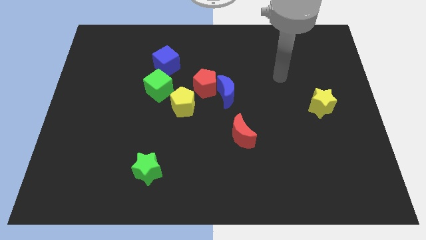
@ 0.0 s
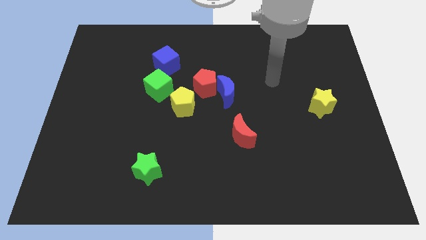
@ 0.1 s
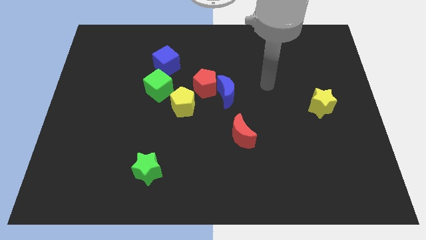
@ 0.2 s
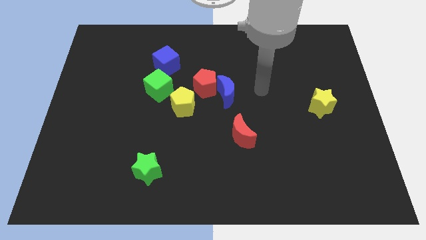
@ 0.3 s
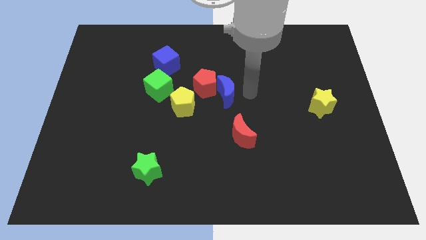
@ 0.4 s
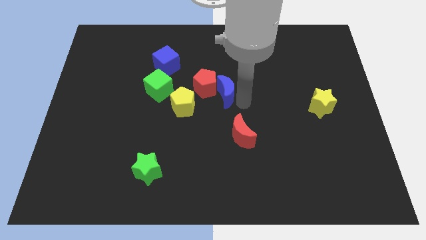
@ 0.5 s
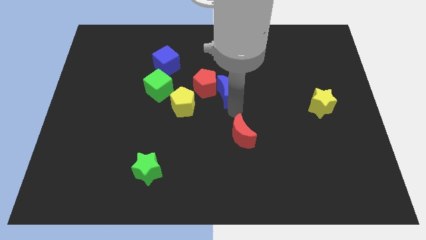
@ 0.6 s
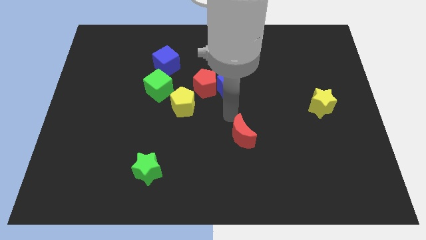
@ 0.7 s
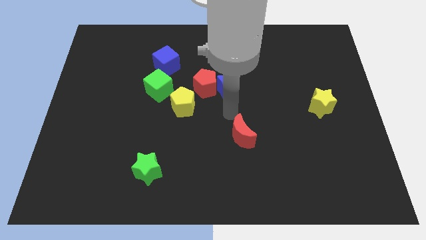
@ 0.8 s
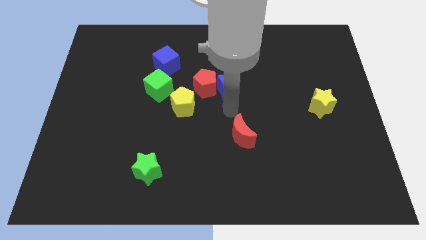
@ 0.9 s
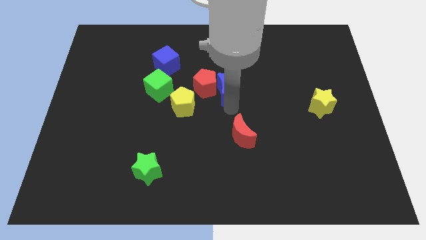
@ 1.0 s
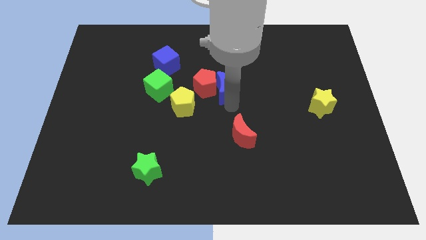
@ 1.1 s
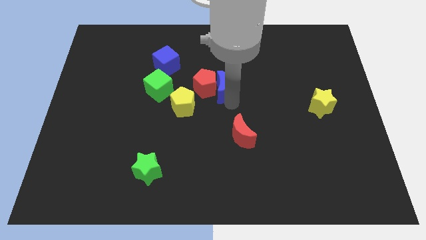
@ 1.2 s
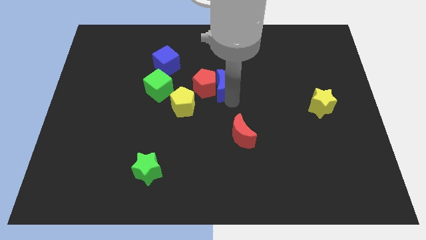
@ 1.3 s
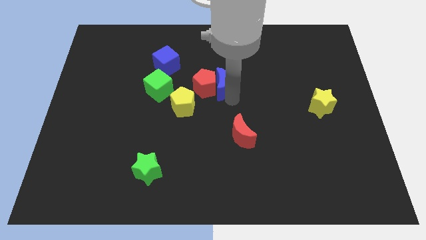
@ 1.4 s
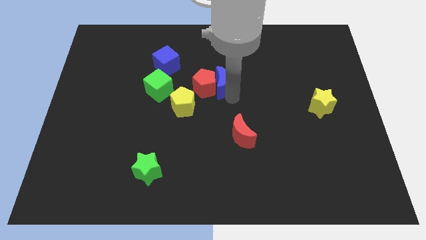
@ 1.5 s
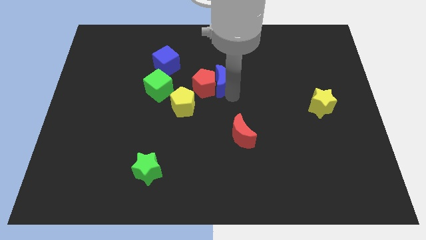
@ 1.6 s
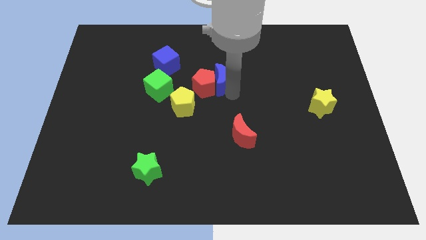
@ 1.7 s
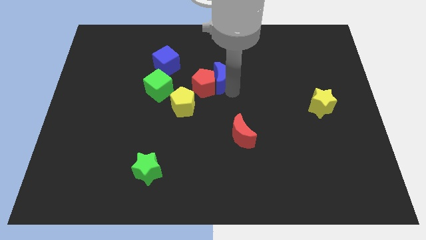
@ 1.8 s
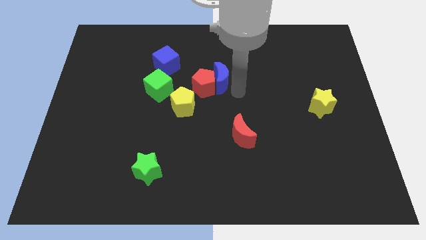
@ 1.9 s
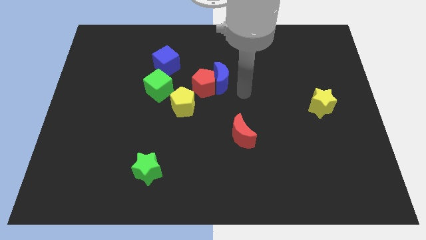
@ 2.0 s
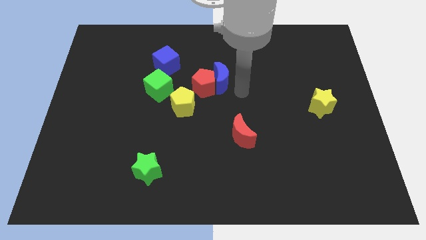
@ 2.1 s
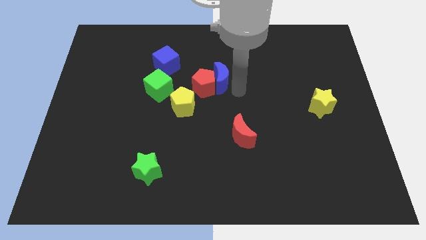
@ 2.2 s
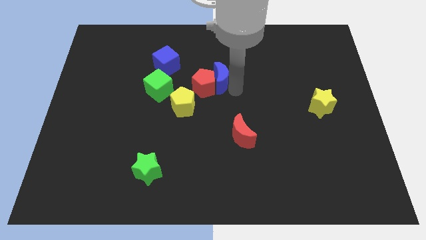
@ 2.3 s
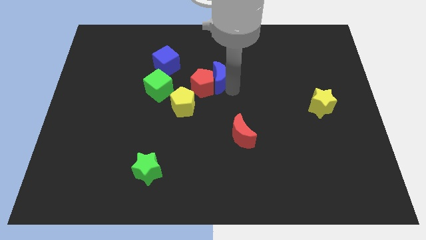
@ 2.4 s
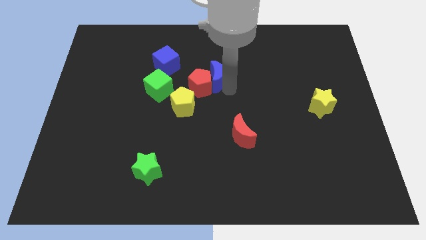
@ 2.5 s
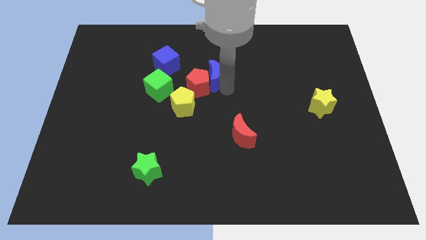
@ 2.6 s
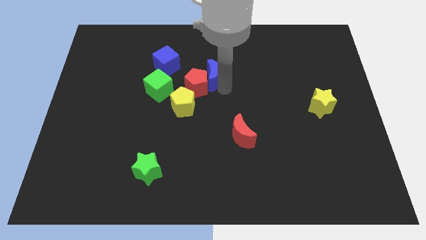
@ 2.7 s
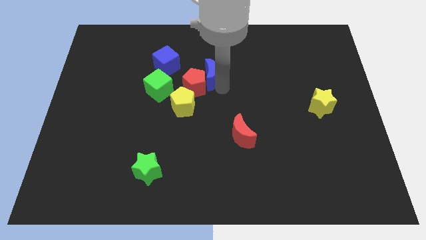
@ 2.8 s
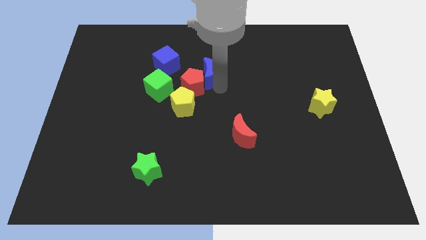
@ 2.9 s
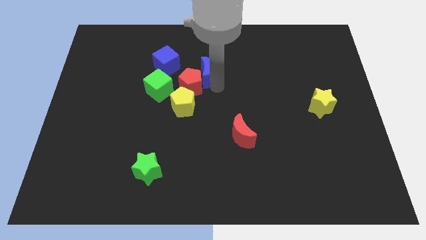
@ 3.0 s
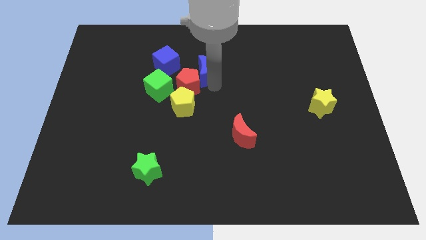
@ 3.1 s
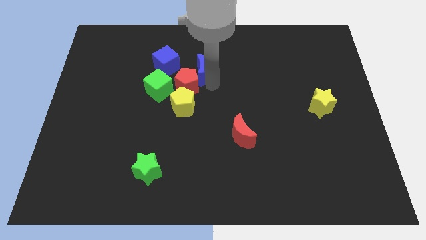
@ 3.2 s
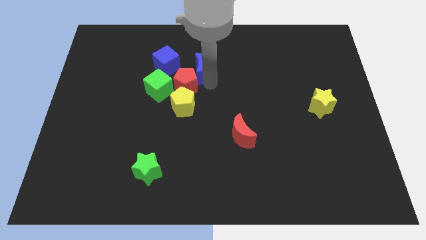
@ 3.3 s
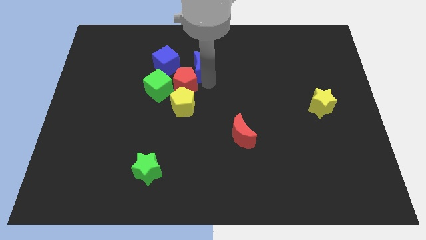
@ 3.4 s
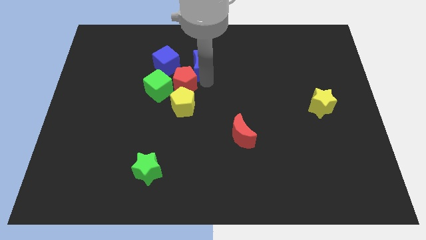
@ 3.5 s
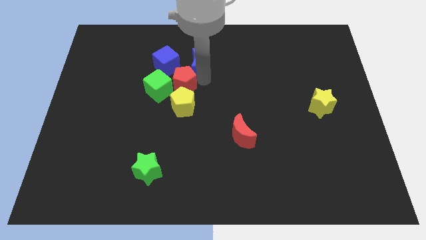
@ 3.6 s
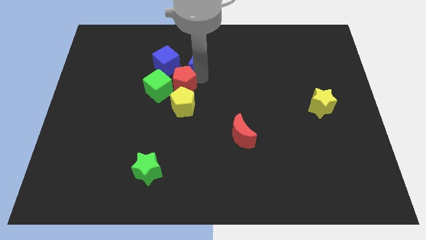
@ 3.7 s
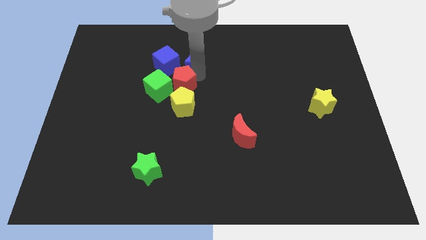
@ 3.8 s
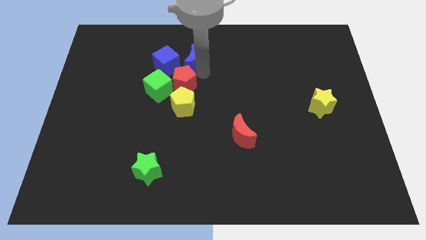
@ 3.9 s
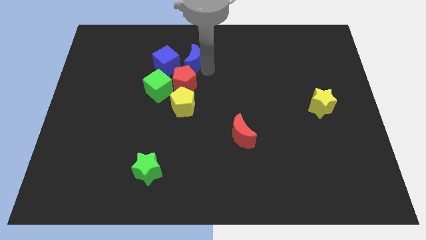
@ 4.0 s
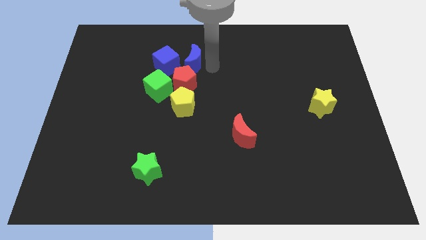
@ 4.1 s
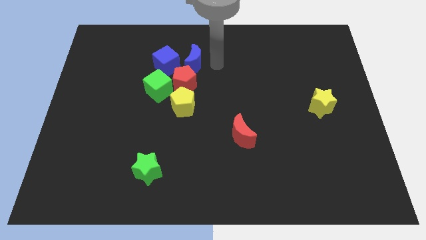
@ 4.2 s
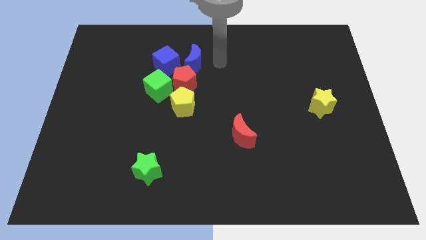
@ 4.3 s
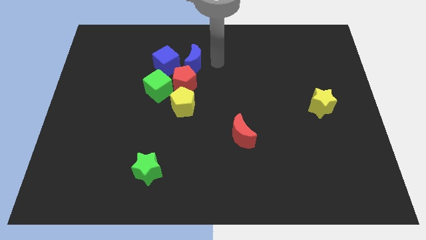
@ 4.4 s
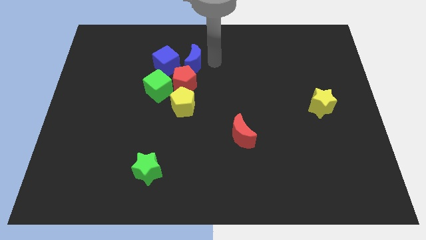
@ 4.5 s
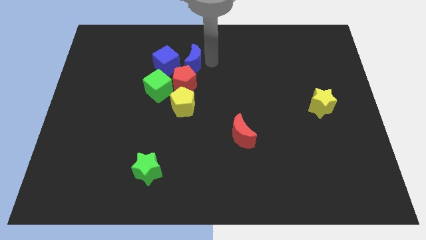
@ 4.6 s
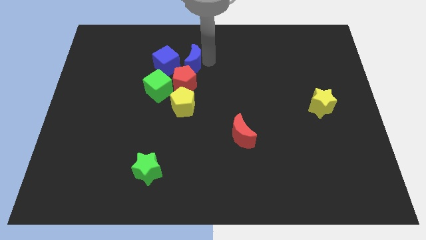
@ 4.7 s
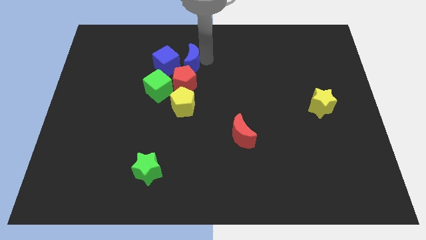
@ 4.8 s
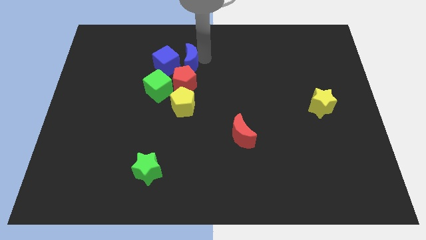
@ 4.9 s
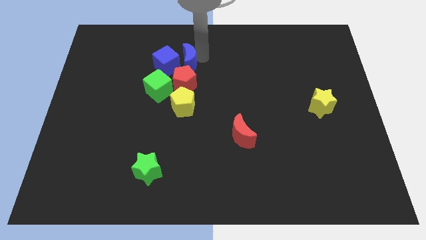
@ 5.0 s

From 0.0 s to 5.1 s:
move the blue moon to the blue cube

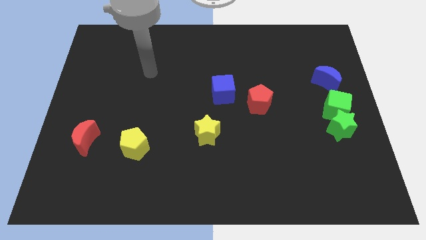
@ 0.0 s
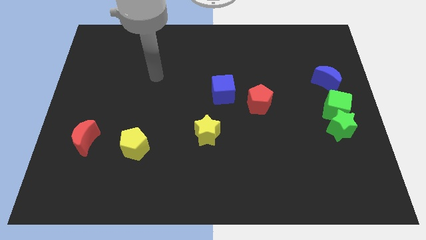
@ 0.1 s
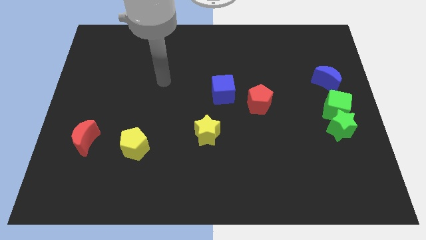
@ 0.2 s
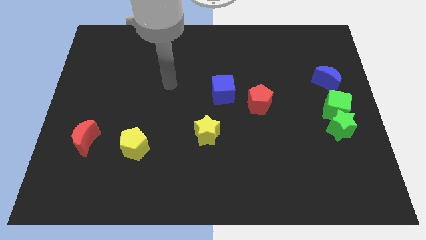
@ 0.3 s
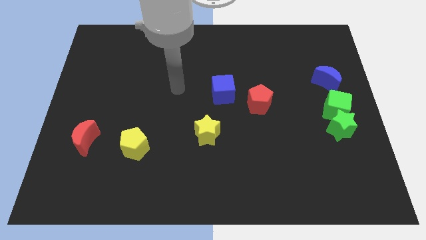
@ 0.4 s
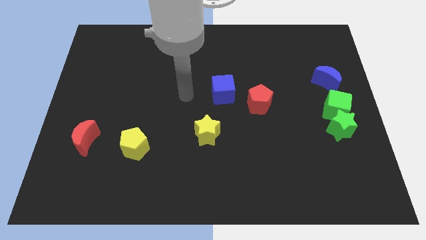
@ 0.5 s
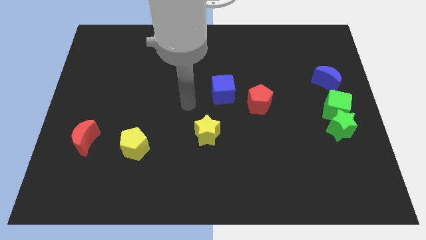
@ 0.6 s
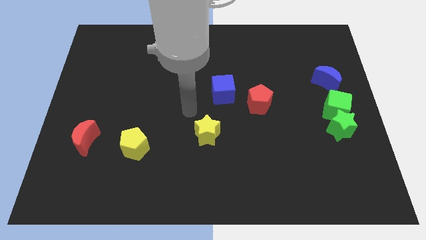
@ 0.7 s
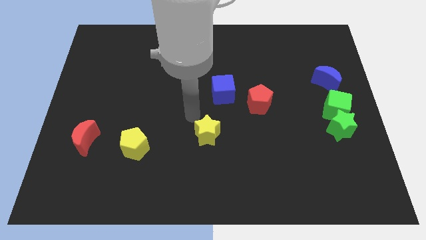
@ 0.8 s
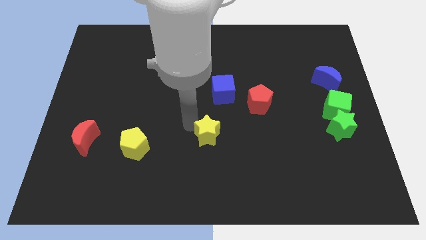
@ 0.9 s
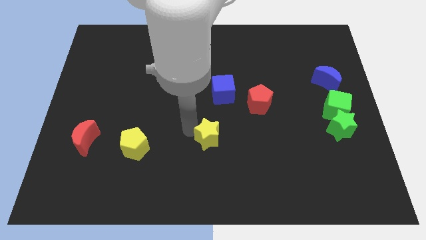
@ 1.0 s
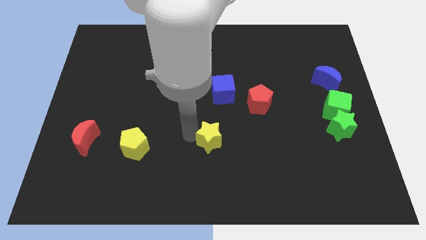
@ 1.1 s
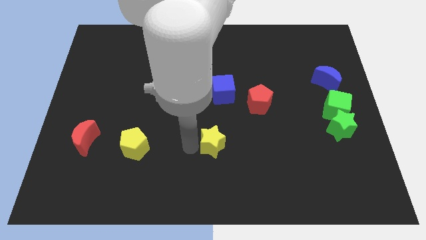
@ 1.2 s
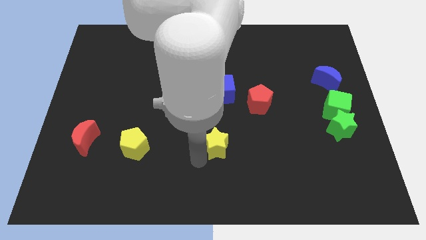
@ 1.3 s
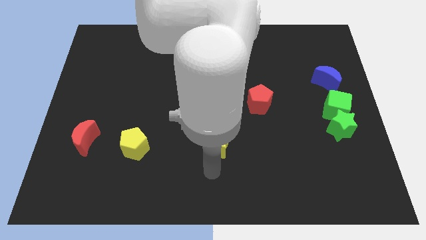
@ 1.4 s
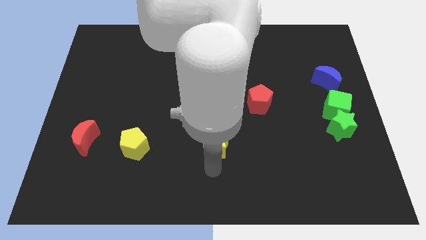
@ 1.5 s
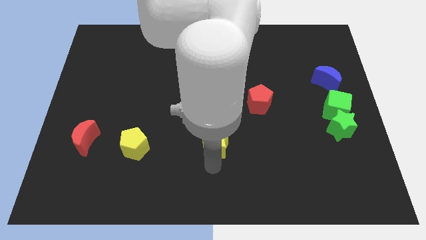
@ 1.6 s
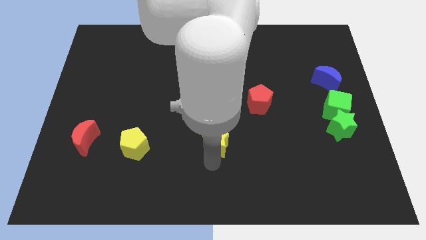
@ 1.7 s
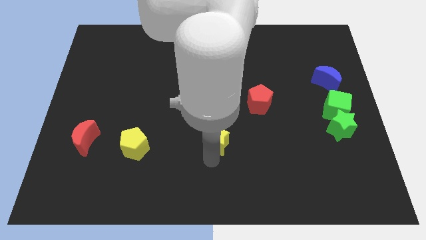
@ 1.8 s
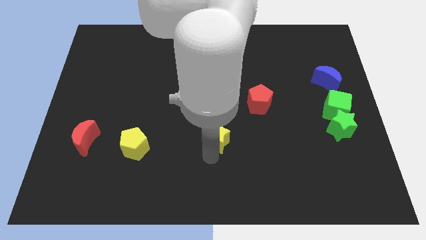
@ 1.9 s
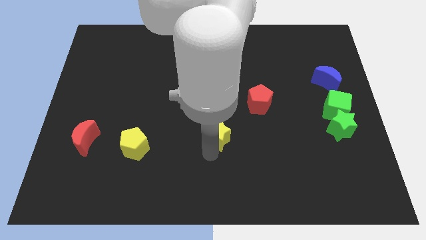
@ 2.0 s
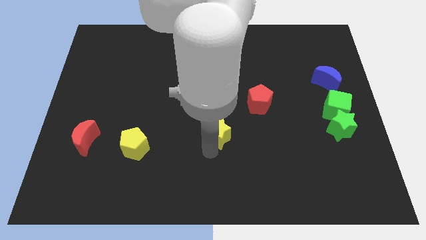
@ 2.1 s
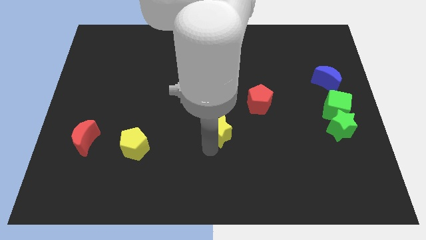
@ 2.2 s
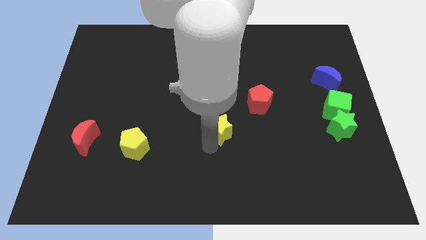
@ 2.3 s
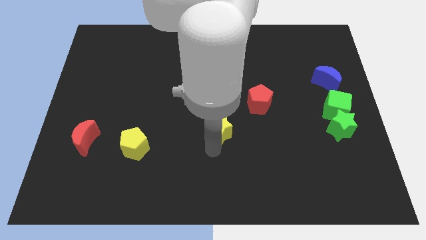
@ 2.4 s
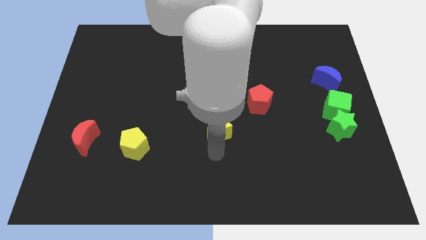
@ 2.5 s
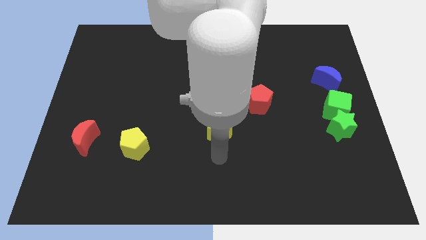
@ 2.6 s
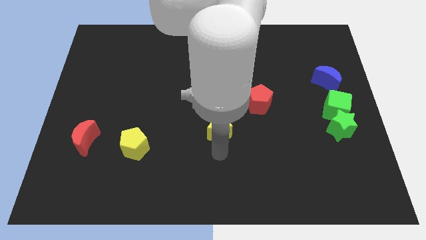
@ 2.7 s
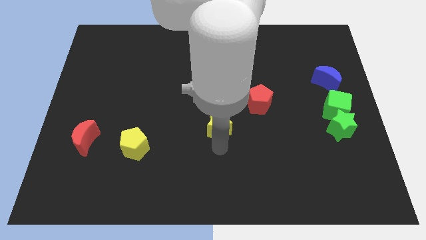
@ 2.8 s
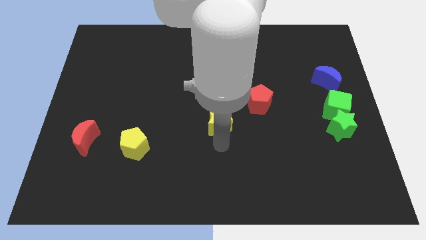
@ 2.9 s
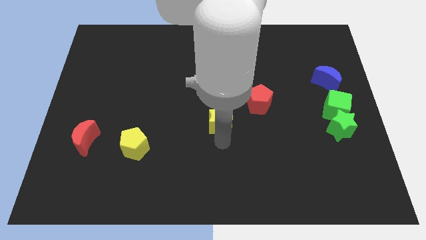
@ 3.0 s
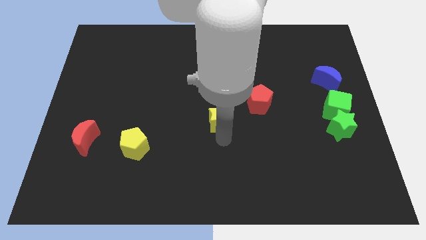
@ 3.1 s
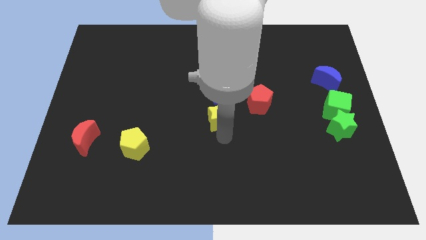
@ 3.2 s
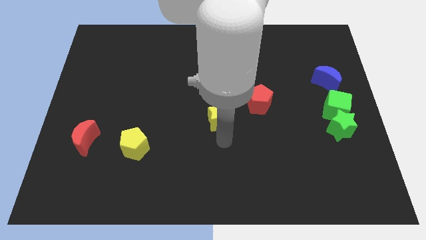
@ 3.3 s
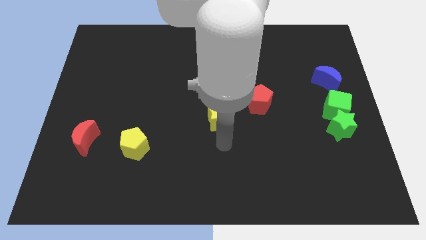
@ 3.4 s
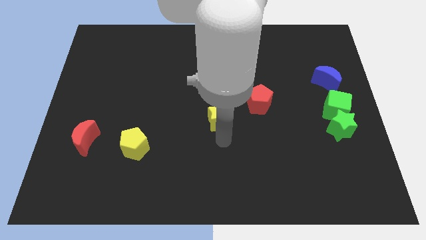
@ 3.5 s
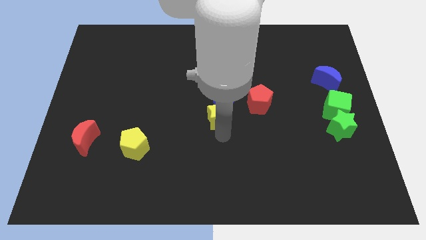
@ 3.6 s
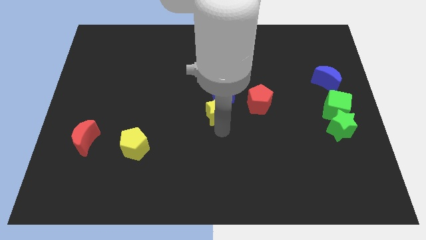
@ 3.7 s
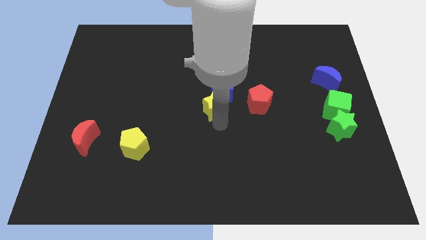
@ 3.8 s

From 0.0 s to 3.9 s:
move the yellow star next to the blue cube
